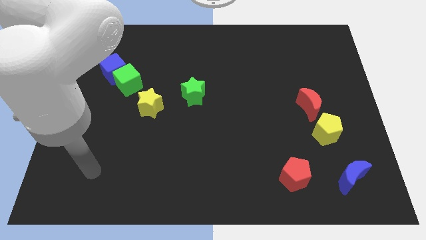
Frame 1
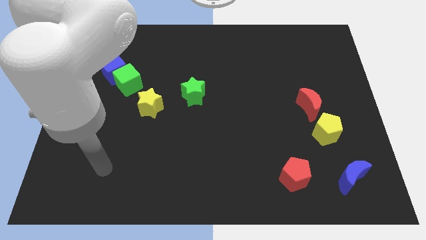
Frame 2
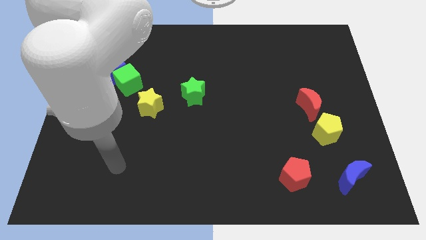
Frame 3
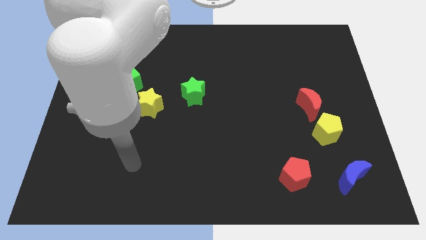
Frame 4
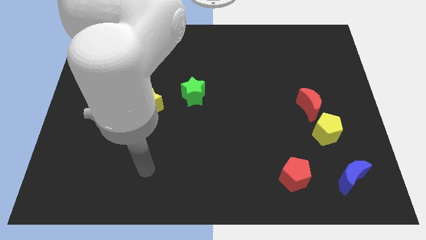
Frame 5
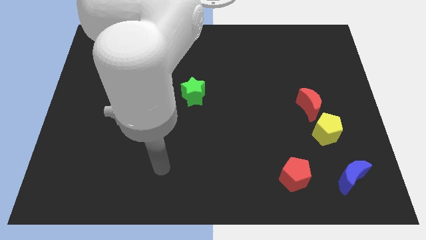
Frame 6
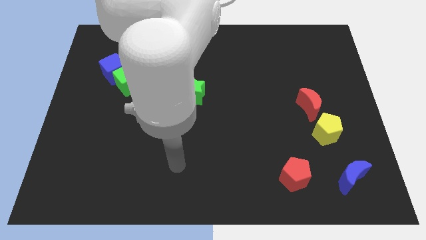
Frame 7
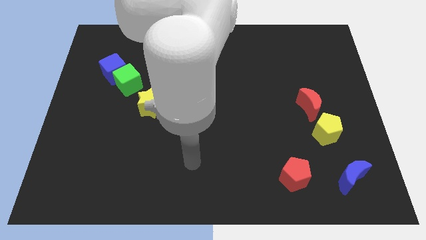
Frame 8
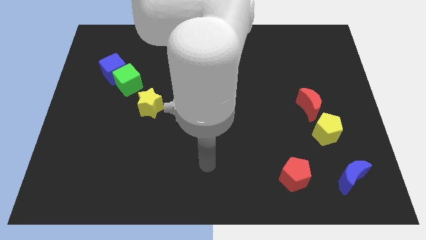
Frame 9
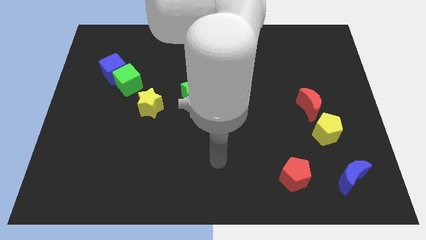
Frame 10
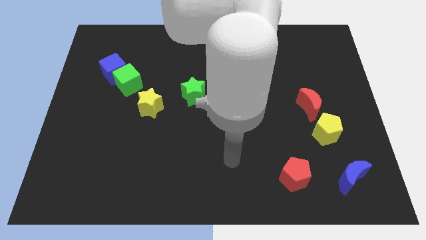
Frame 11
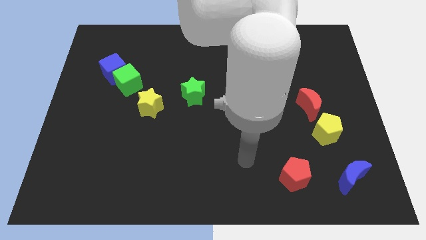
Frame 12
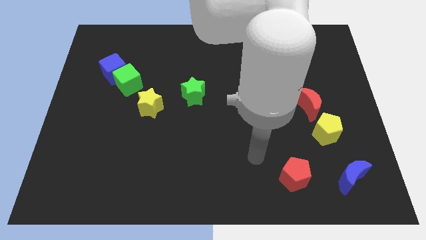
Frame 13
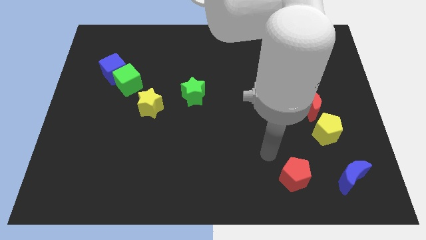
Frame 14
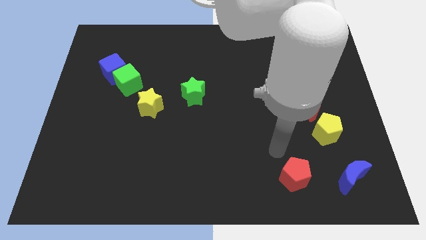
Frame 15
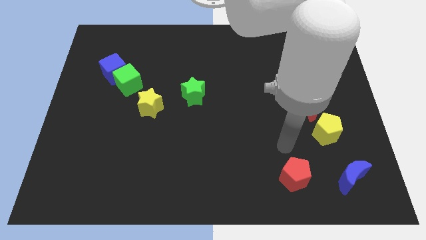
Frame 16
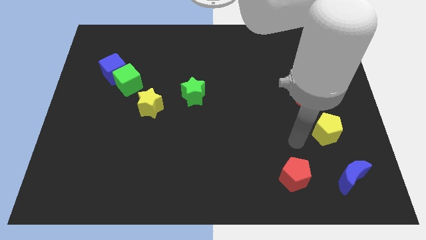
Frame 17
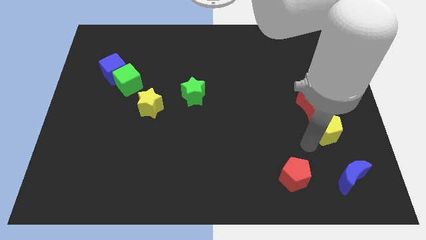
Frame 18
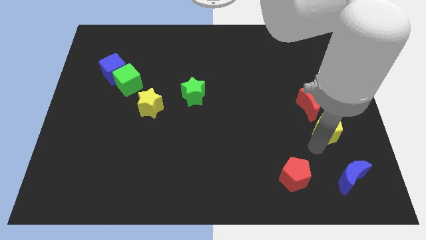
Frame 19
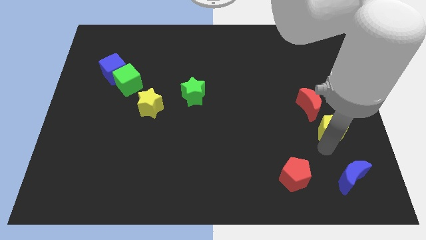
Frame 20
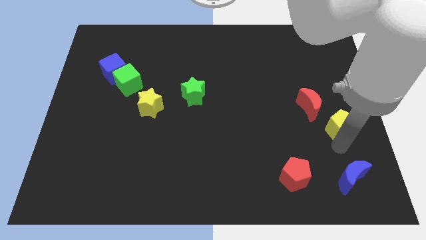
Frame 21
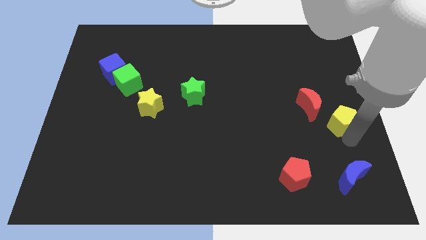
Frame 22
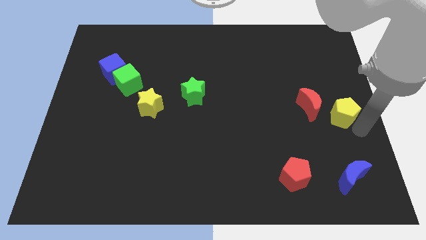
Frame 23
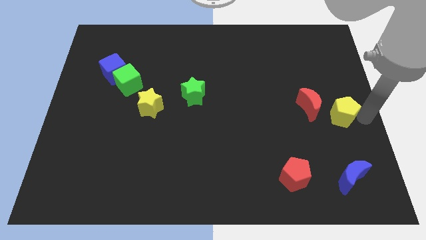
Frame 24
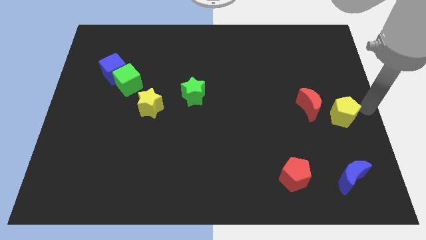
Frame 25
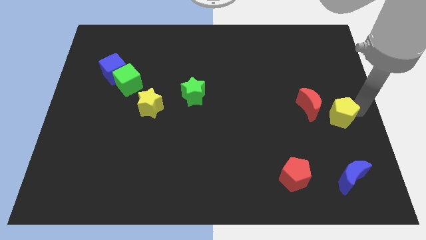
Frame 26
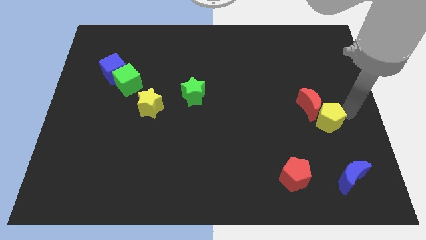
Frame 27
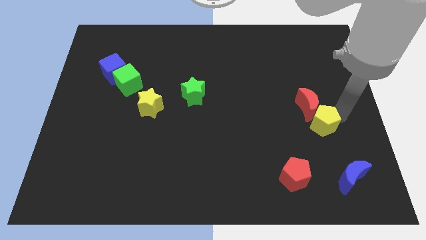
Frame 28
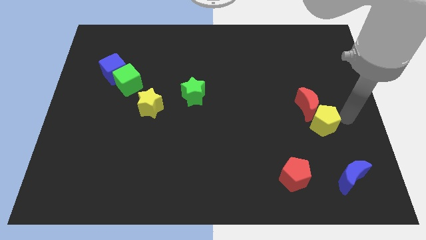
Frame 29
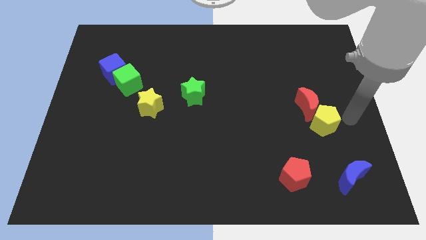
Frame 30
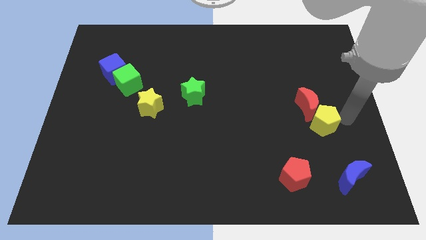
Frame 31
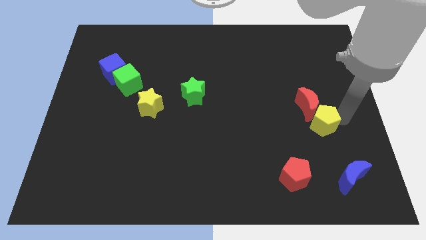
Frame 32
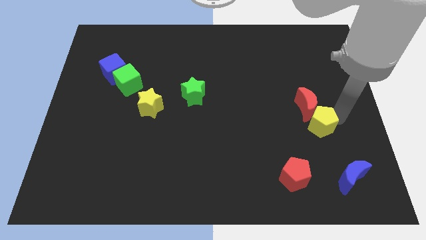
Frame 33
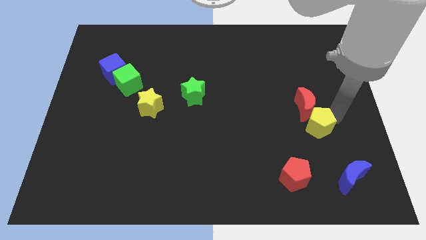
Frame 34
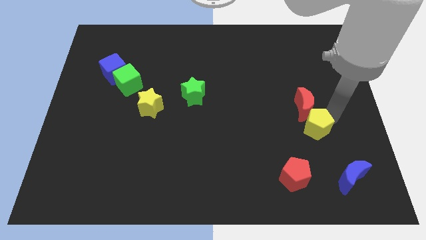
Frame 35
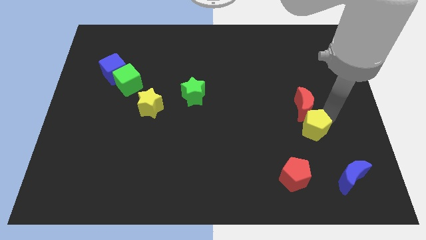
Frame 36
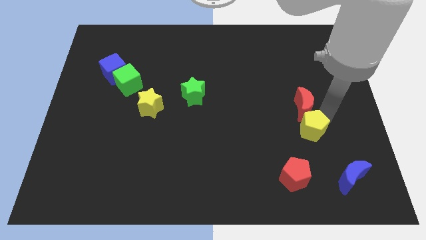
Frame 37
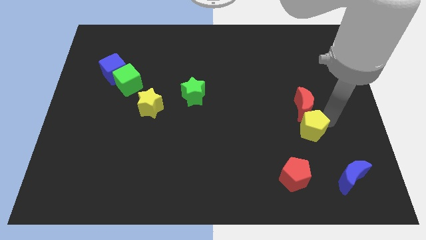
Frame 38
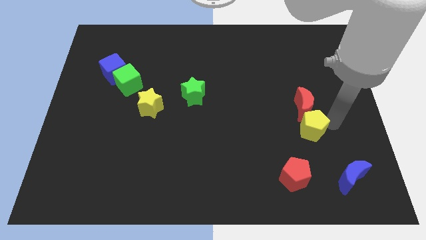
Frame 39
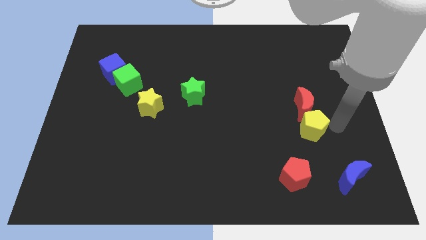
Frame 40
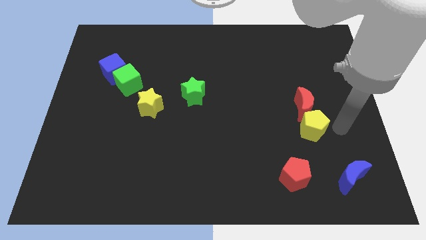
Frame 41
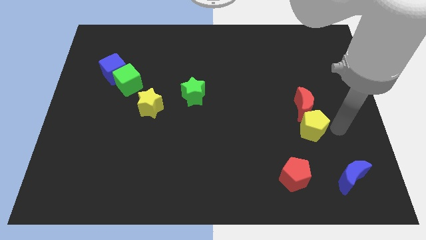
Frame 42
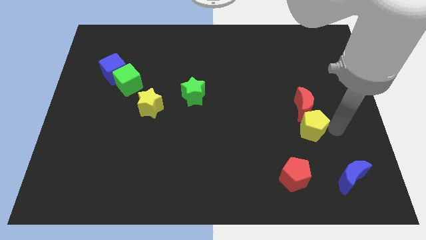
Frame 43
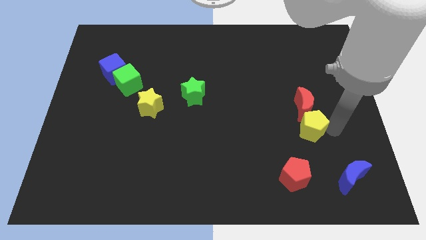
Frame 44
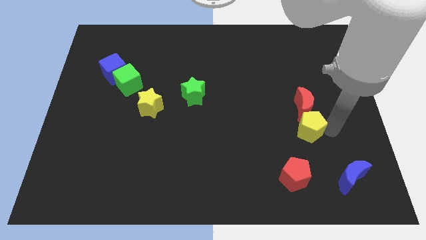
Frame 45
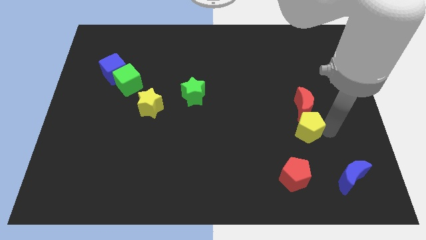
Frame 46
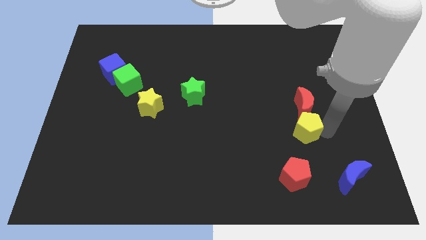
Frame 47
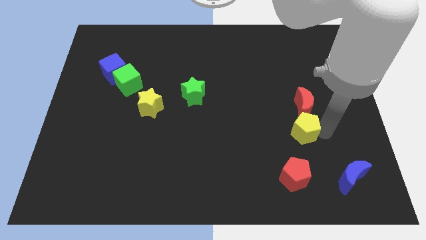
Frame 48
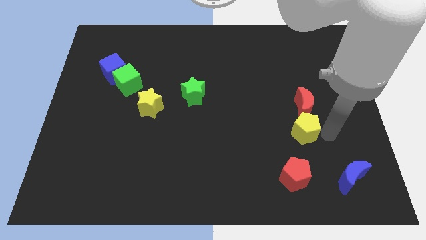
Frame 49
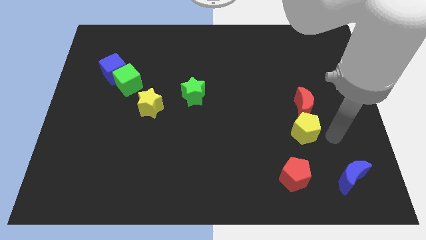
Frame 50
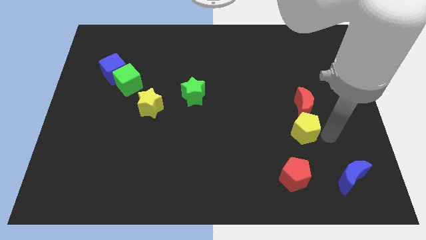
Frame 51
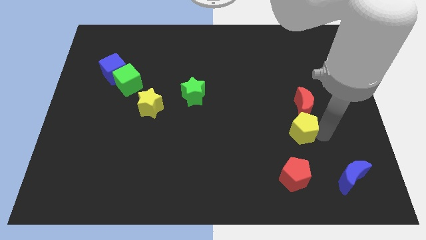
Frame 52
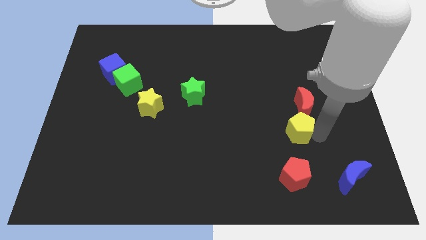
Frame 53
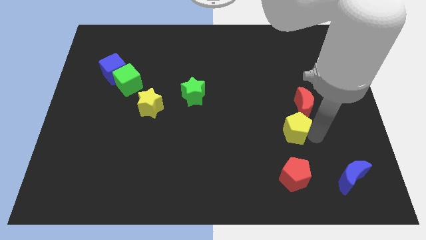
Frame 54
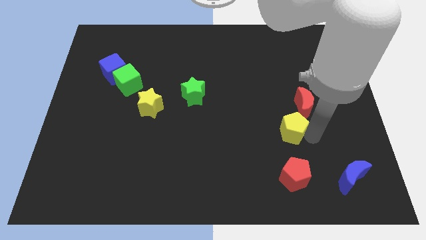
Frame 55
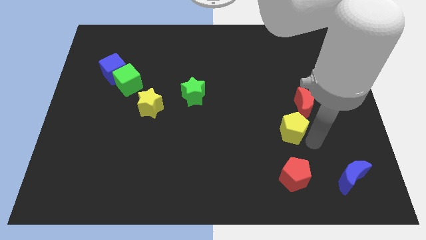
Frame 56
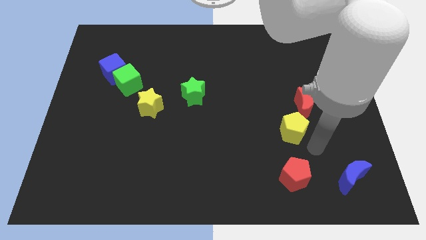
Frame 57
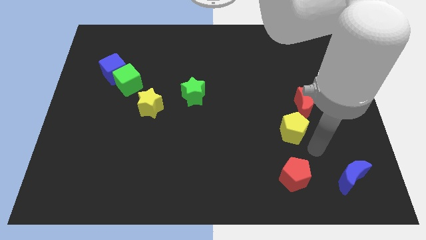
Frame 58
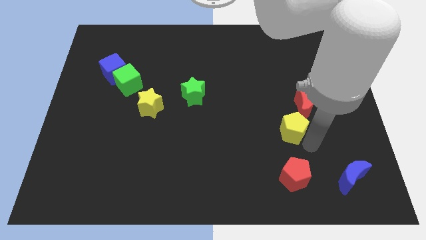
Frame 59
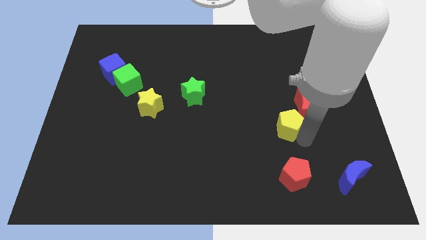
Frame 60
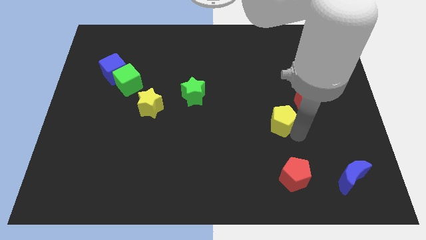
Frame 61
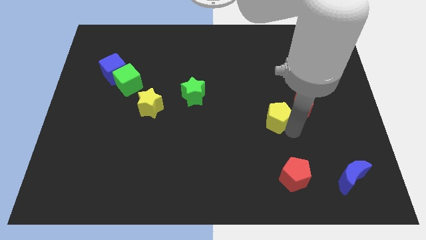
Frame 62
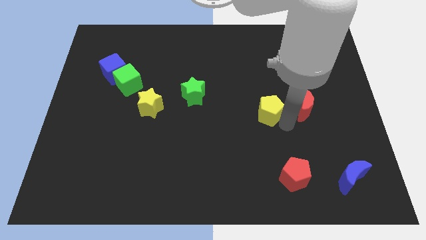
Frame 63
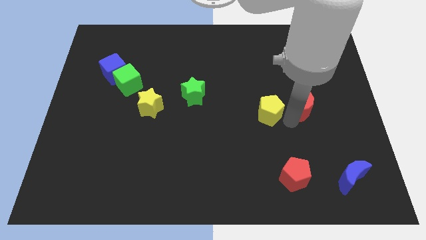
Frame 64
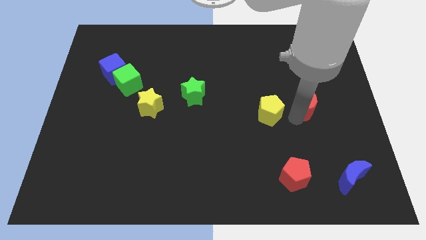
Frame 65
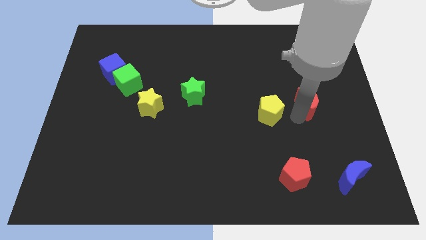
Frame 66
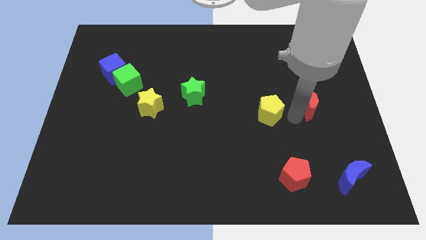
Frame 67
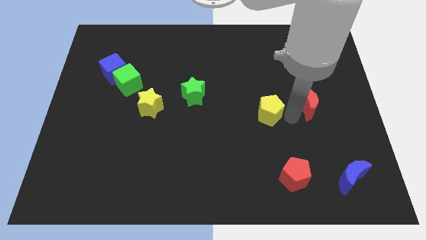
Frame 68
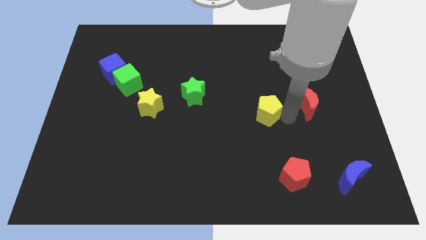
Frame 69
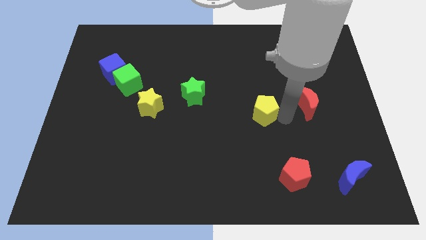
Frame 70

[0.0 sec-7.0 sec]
put the yellow pentagon to the middle
